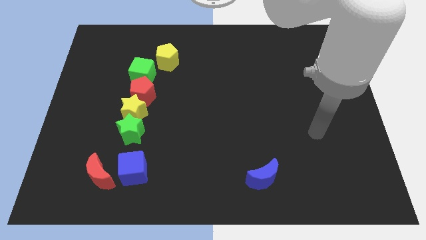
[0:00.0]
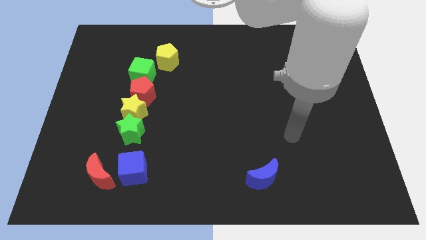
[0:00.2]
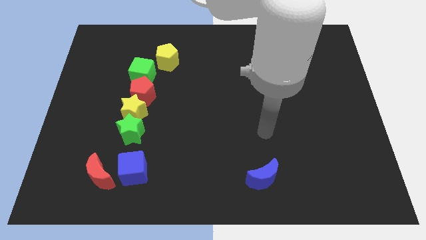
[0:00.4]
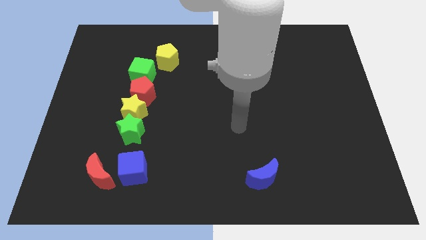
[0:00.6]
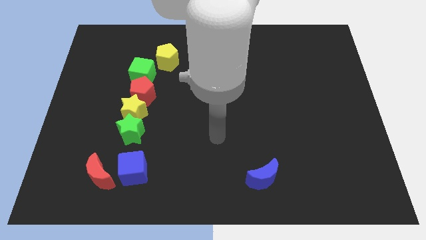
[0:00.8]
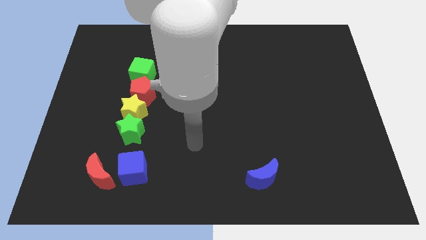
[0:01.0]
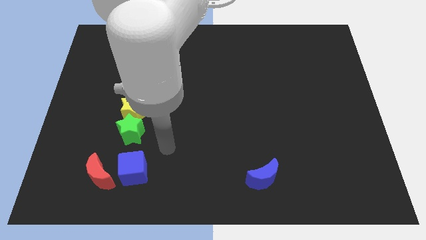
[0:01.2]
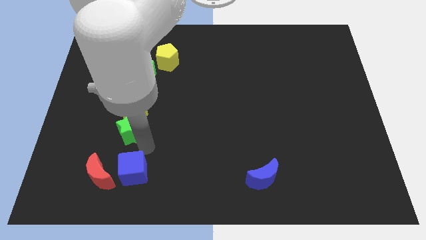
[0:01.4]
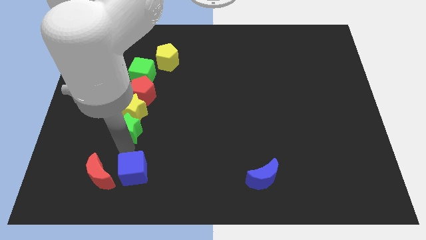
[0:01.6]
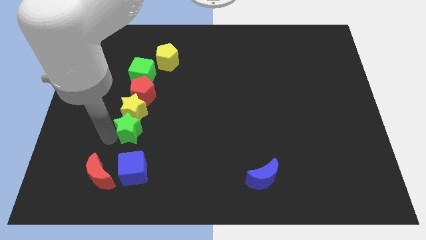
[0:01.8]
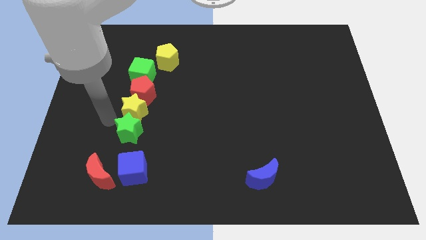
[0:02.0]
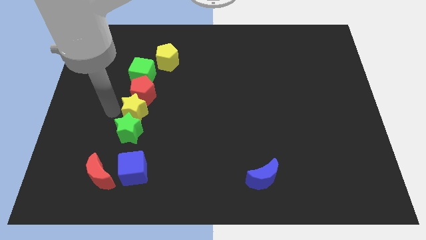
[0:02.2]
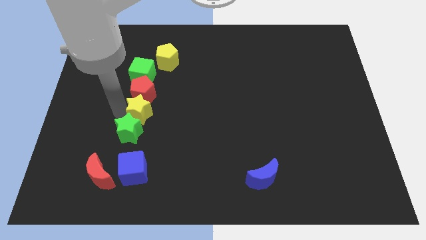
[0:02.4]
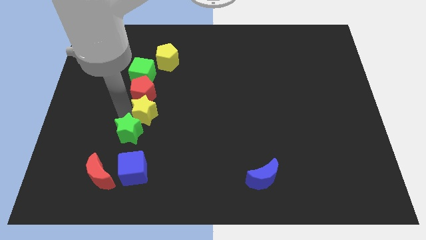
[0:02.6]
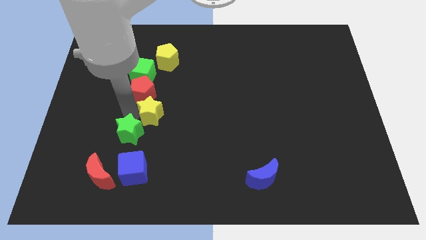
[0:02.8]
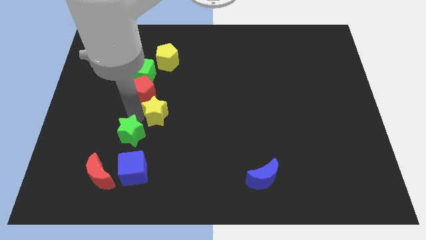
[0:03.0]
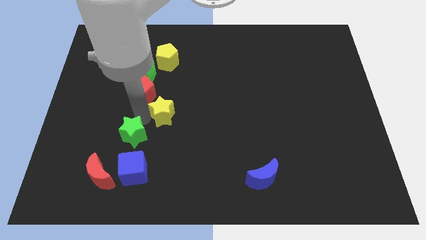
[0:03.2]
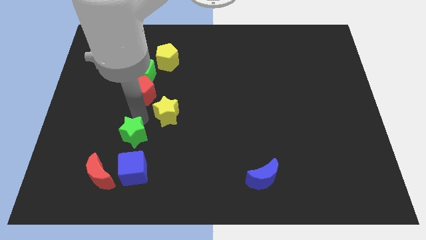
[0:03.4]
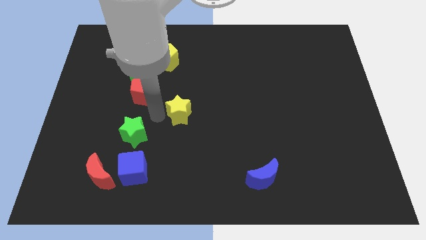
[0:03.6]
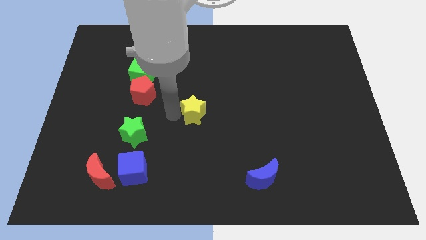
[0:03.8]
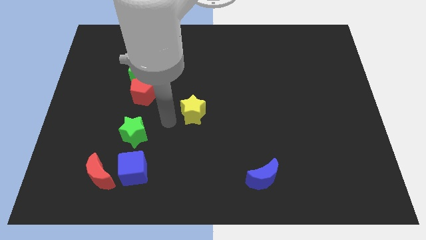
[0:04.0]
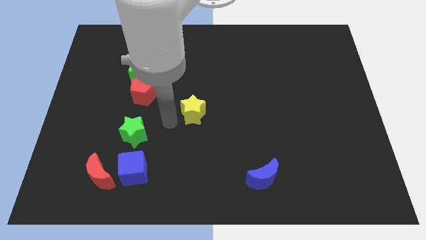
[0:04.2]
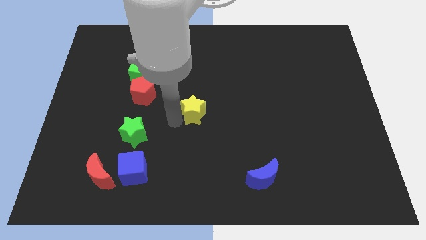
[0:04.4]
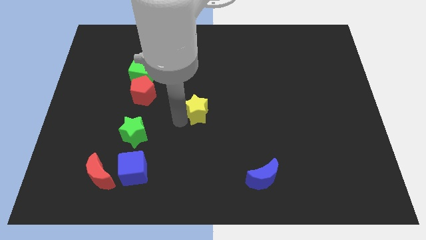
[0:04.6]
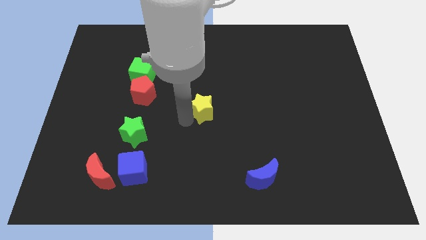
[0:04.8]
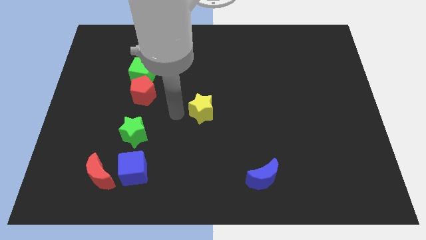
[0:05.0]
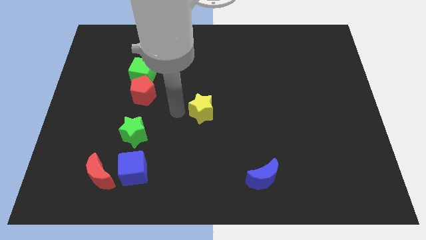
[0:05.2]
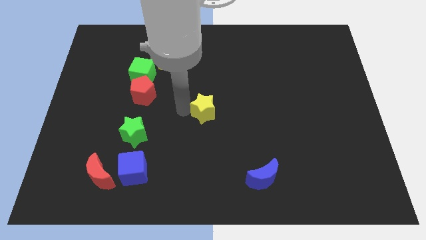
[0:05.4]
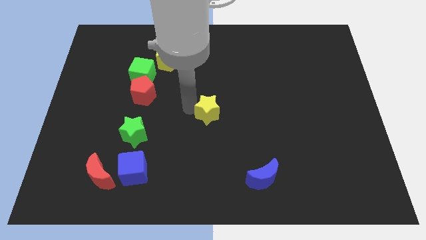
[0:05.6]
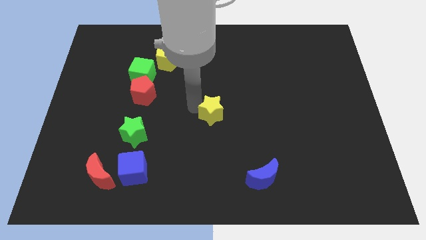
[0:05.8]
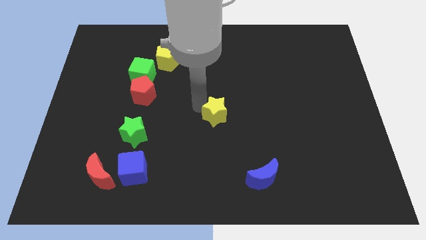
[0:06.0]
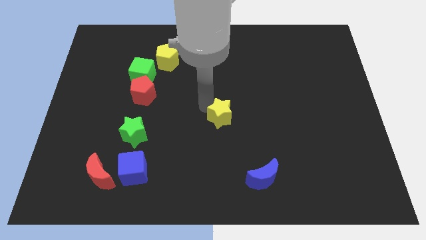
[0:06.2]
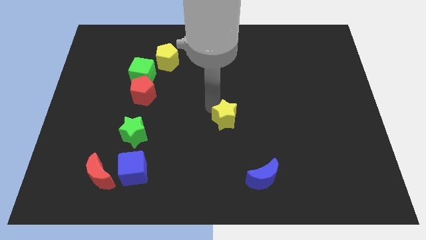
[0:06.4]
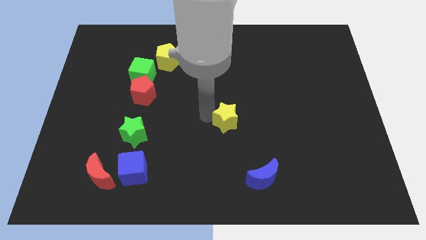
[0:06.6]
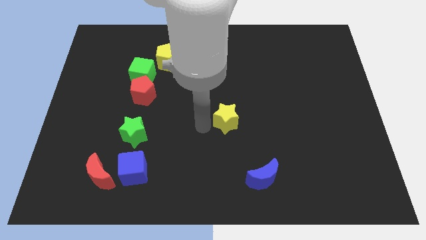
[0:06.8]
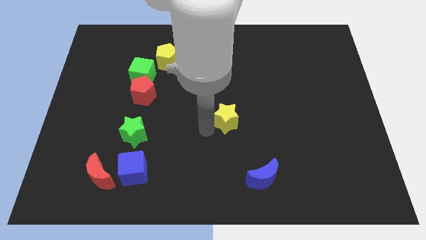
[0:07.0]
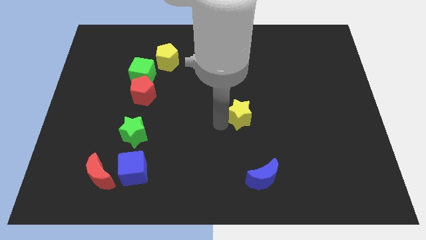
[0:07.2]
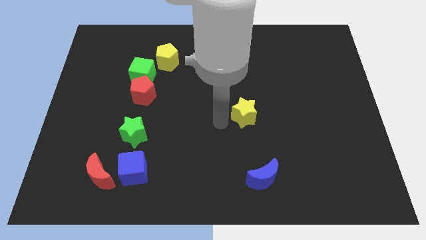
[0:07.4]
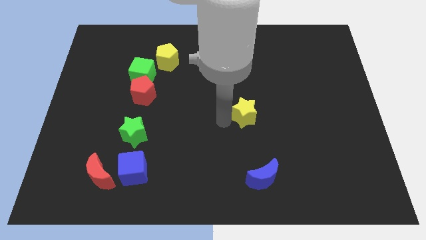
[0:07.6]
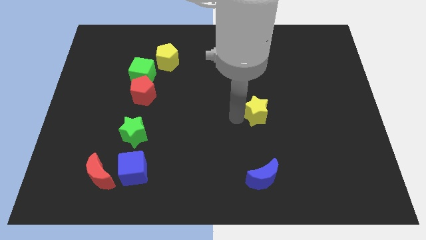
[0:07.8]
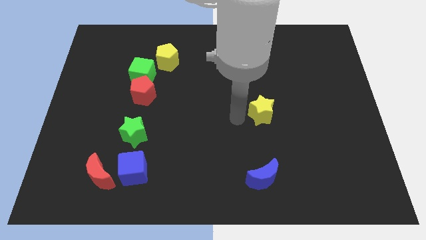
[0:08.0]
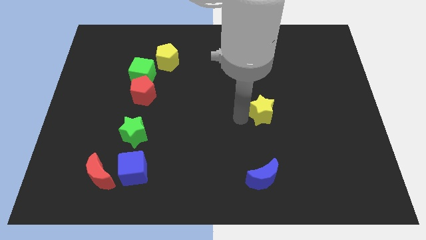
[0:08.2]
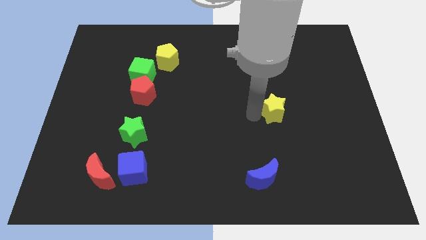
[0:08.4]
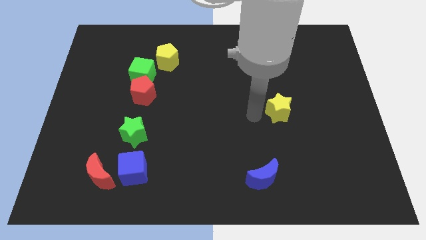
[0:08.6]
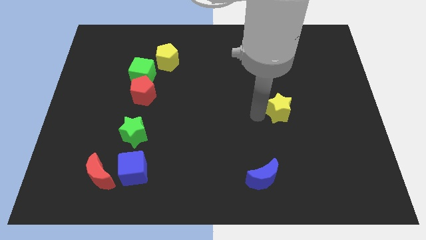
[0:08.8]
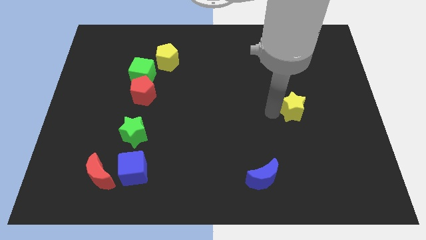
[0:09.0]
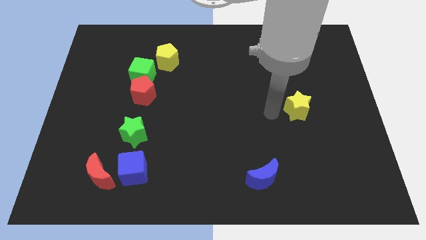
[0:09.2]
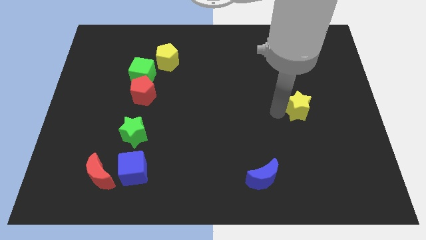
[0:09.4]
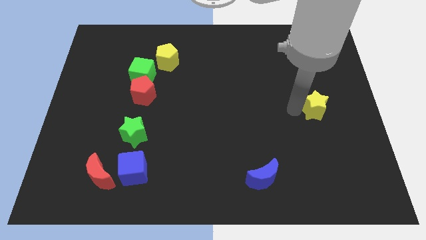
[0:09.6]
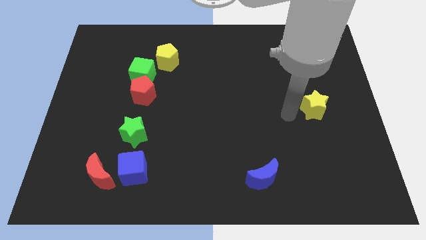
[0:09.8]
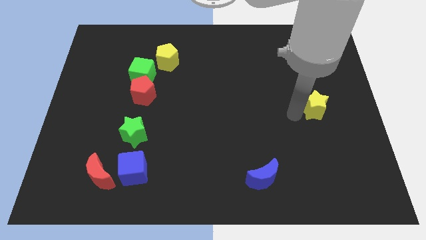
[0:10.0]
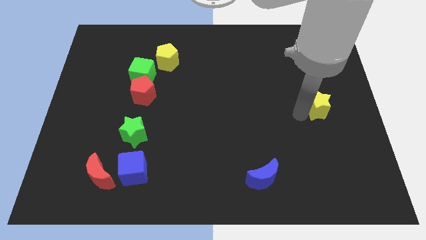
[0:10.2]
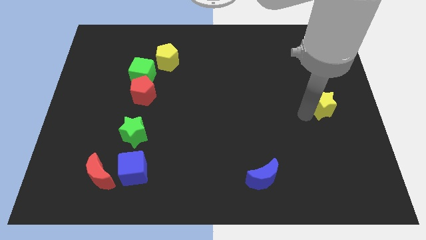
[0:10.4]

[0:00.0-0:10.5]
push the yellow star to the right side of the board

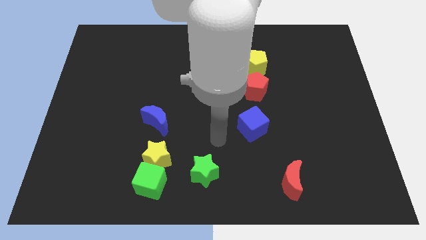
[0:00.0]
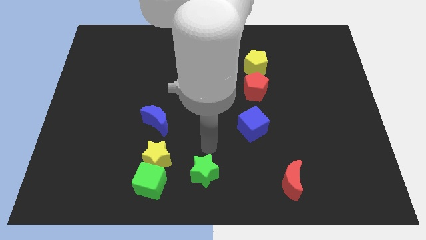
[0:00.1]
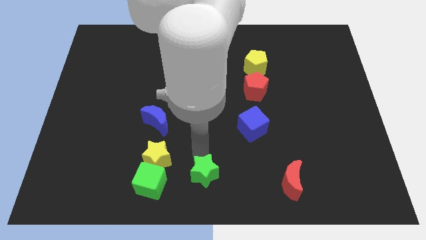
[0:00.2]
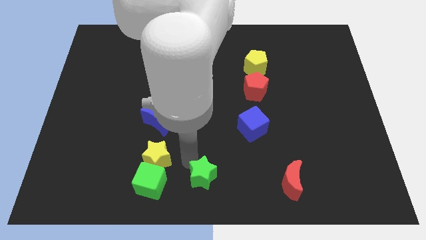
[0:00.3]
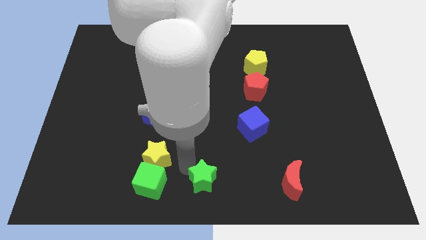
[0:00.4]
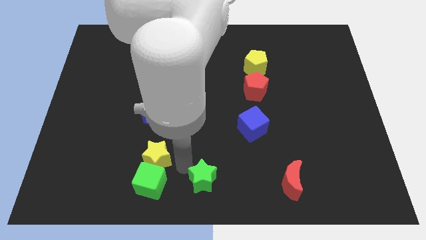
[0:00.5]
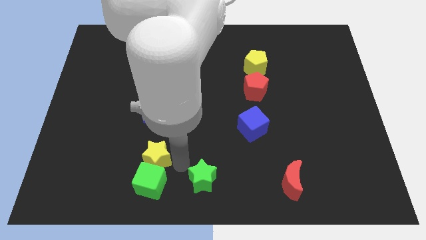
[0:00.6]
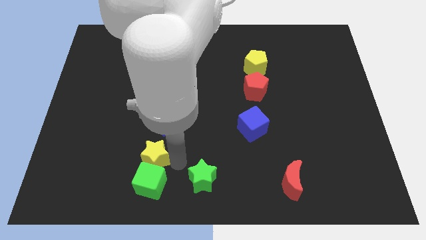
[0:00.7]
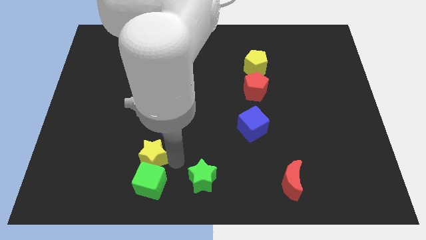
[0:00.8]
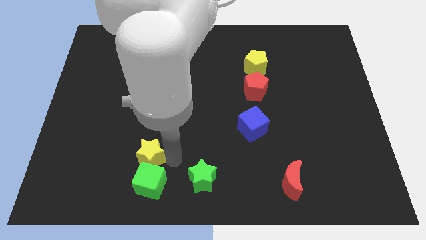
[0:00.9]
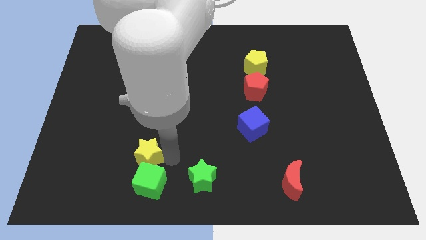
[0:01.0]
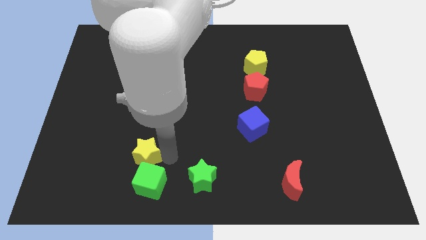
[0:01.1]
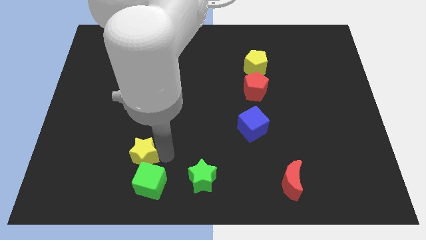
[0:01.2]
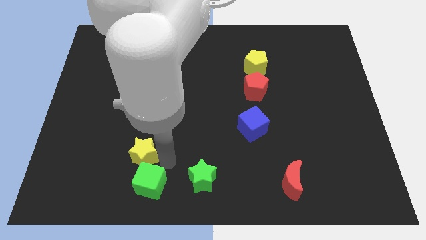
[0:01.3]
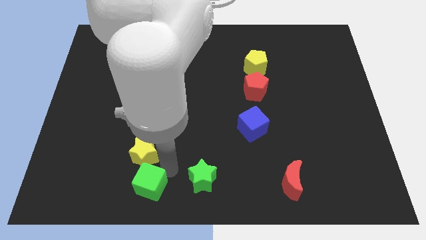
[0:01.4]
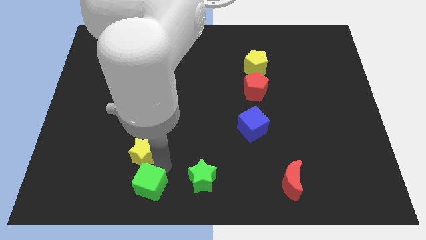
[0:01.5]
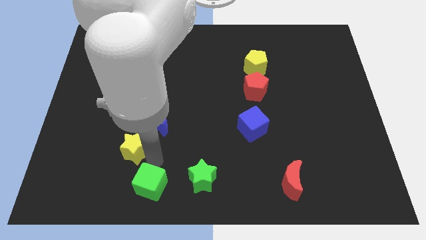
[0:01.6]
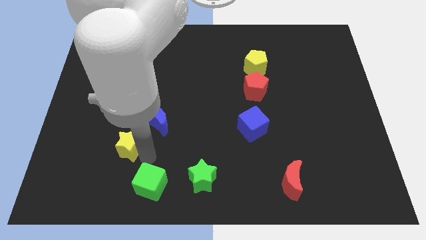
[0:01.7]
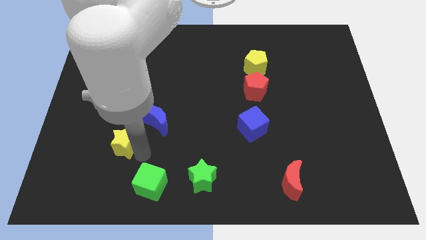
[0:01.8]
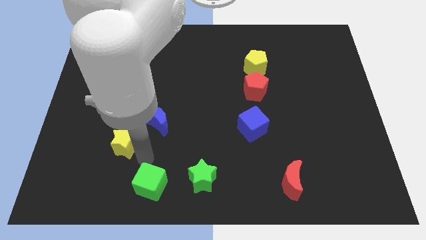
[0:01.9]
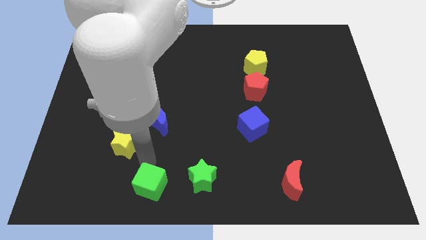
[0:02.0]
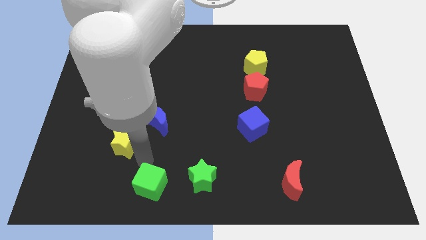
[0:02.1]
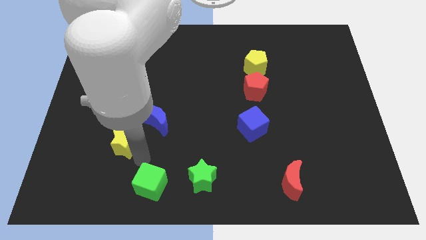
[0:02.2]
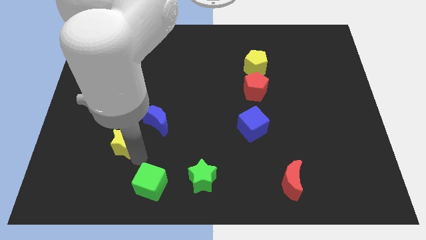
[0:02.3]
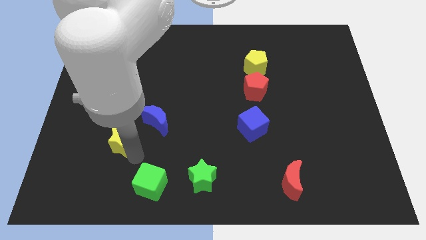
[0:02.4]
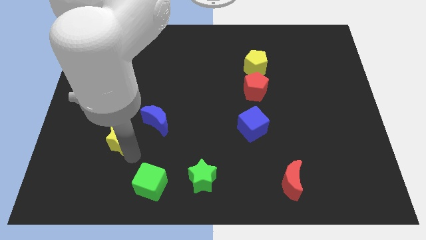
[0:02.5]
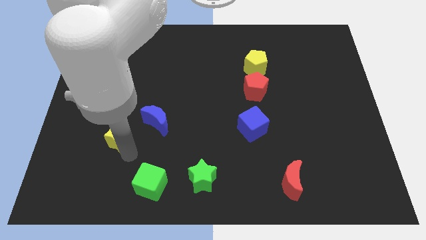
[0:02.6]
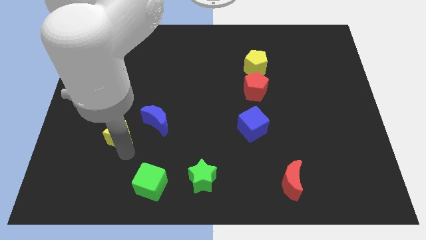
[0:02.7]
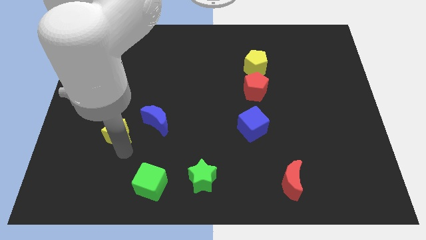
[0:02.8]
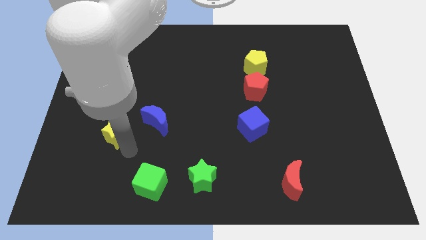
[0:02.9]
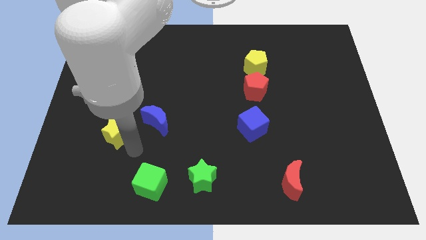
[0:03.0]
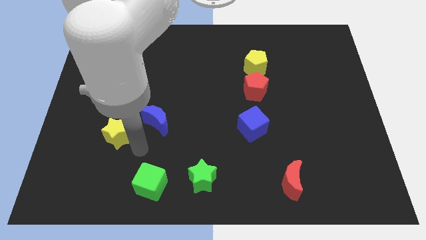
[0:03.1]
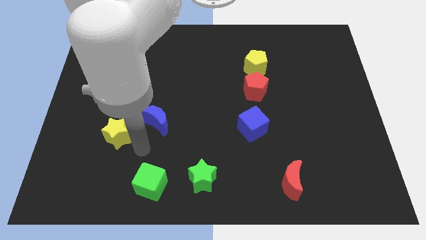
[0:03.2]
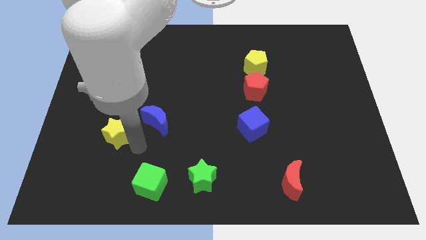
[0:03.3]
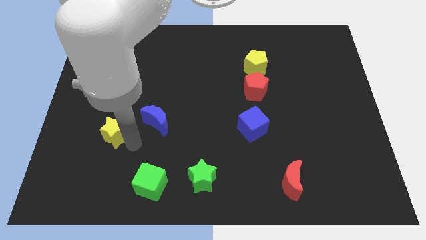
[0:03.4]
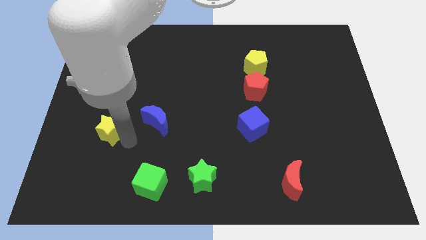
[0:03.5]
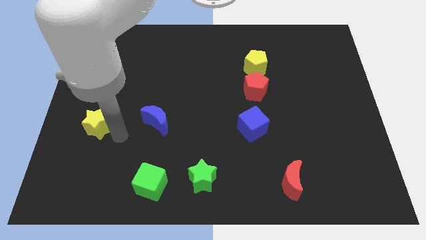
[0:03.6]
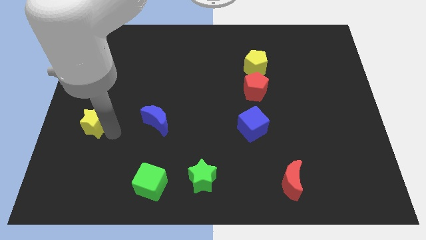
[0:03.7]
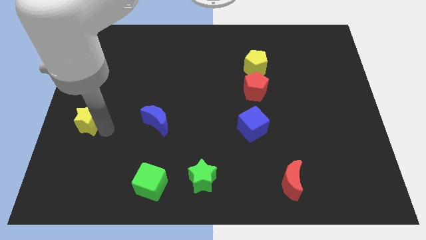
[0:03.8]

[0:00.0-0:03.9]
push the yellow star to the left side of the board
